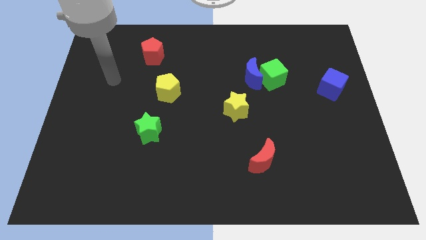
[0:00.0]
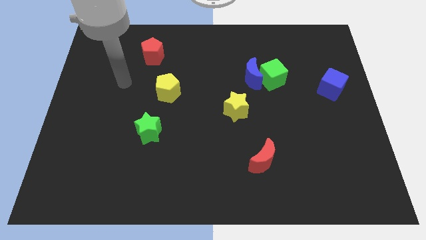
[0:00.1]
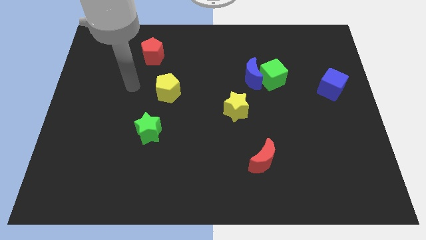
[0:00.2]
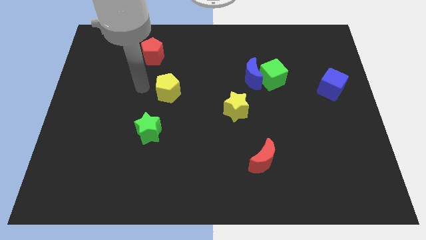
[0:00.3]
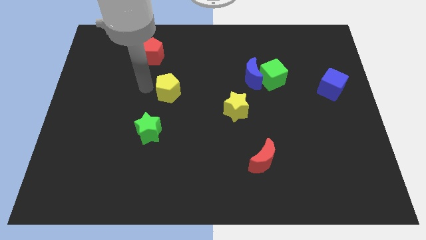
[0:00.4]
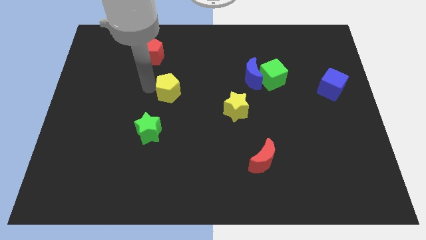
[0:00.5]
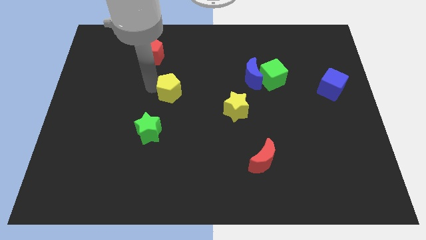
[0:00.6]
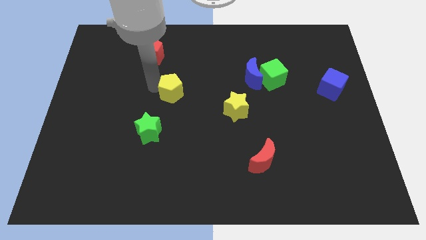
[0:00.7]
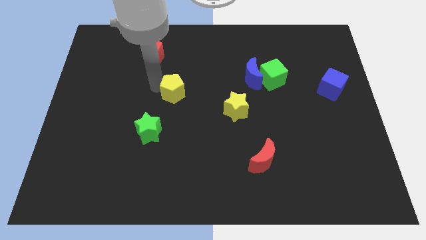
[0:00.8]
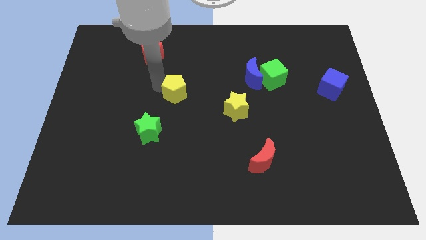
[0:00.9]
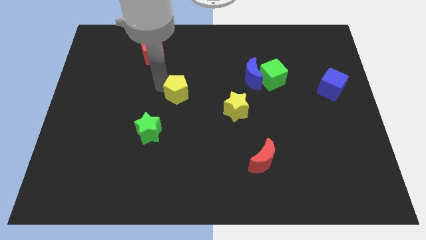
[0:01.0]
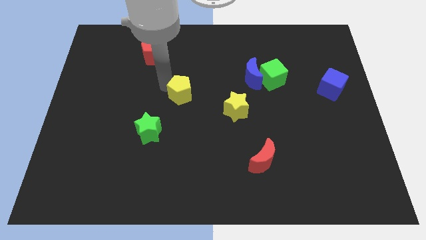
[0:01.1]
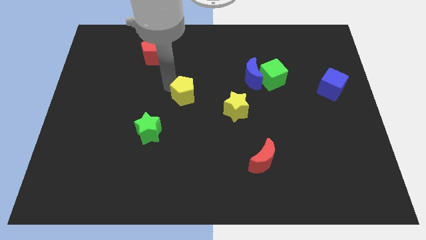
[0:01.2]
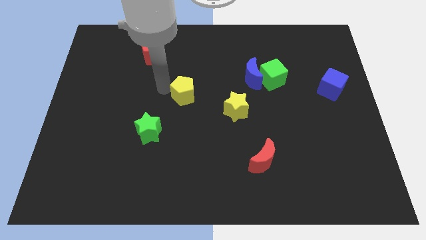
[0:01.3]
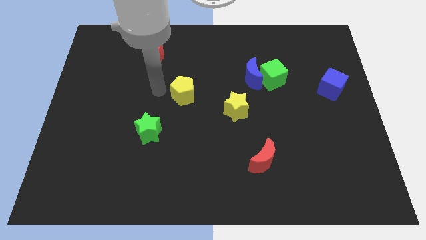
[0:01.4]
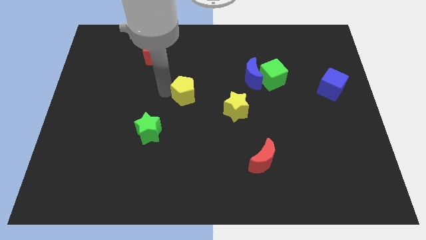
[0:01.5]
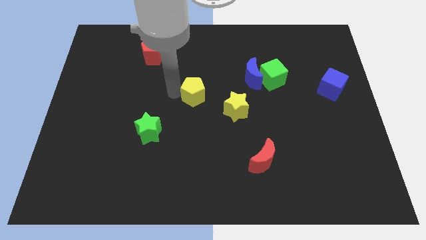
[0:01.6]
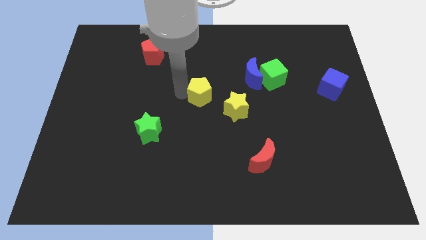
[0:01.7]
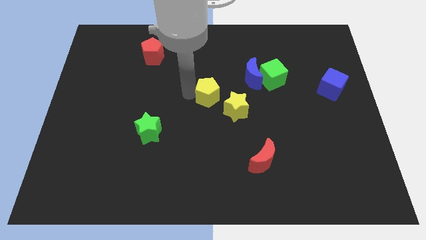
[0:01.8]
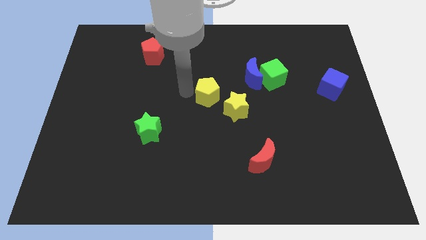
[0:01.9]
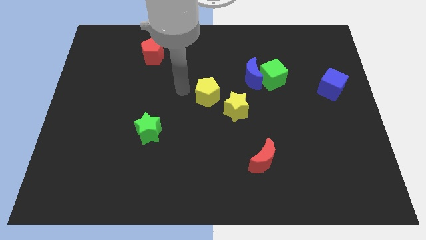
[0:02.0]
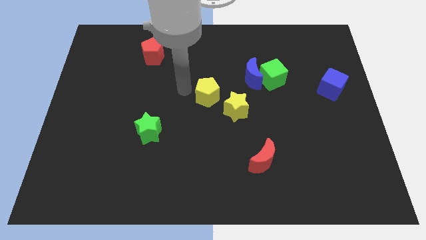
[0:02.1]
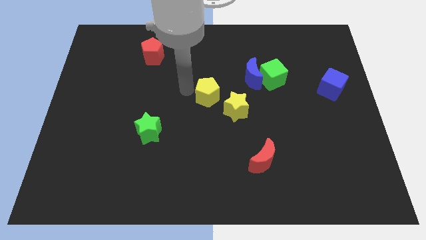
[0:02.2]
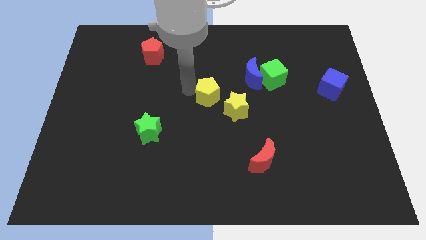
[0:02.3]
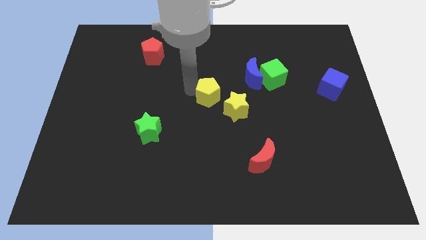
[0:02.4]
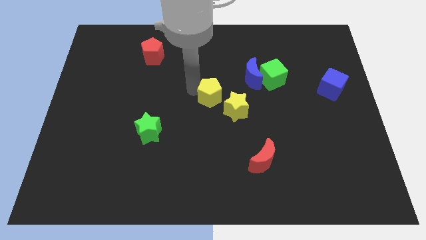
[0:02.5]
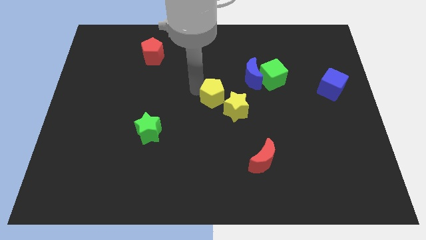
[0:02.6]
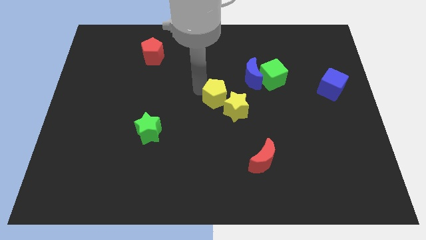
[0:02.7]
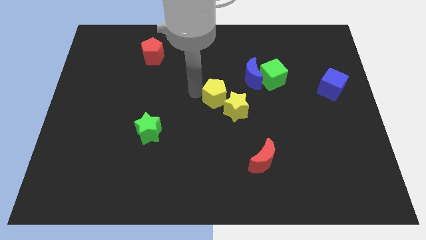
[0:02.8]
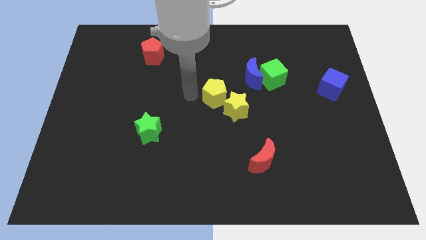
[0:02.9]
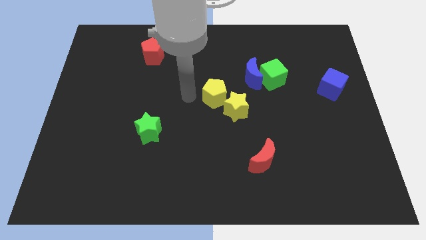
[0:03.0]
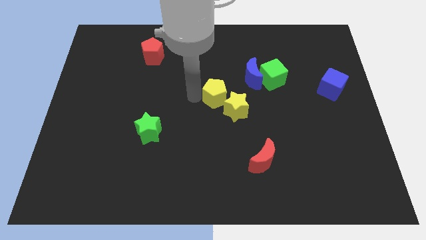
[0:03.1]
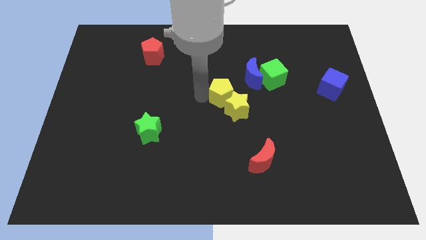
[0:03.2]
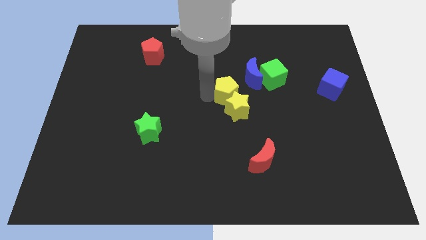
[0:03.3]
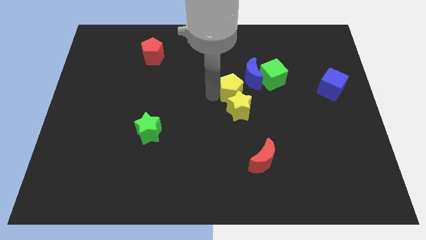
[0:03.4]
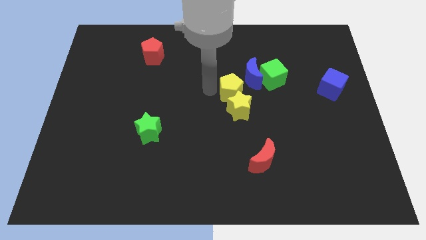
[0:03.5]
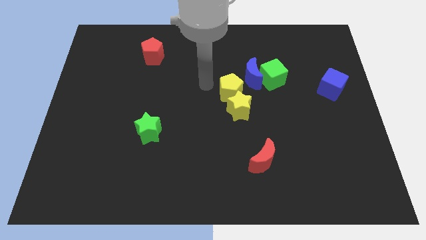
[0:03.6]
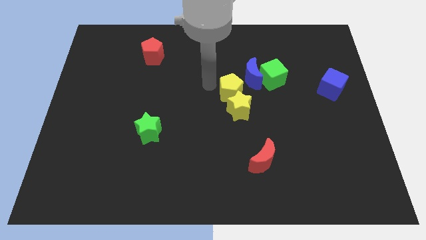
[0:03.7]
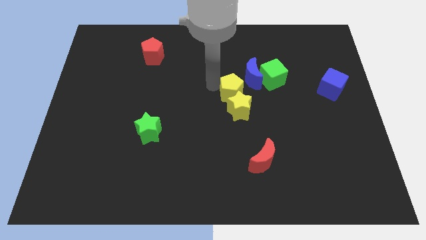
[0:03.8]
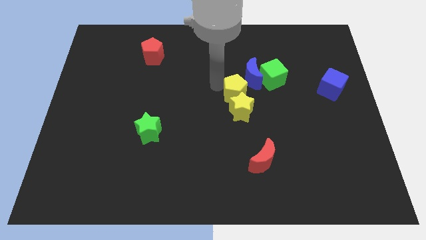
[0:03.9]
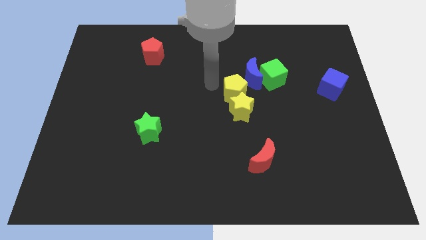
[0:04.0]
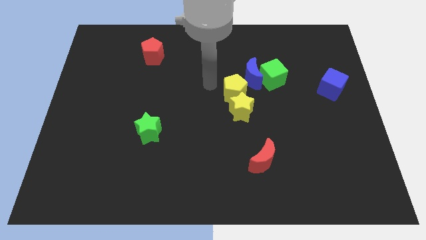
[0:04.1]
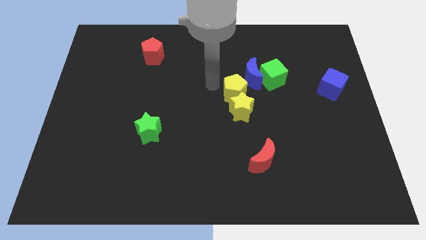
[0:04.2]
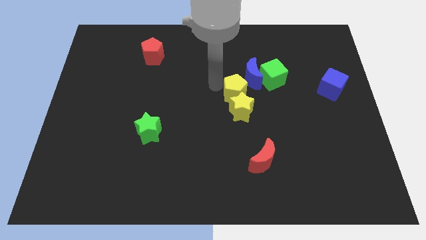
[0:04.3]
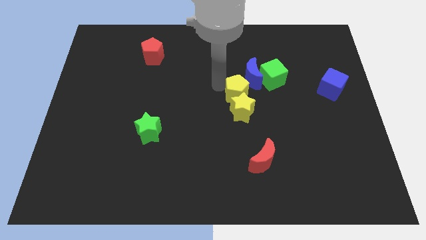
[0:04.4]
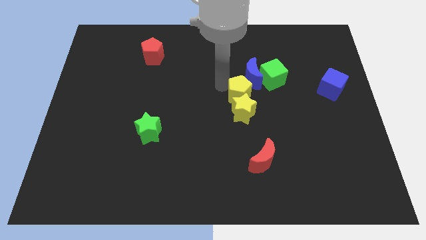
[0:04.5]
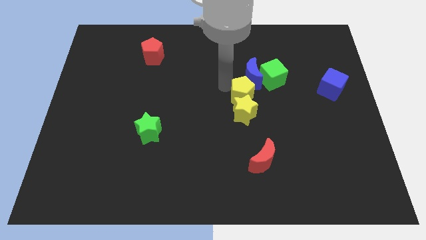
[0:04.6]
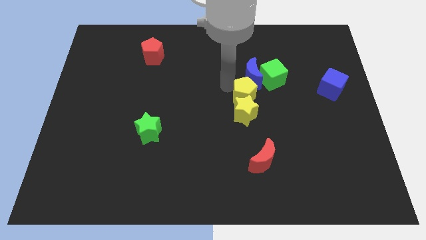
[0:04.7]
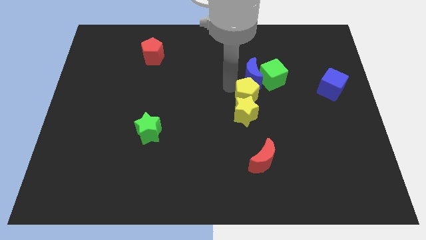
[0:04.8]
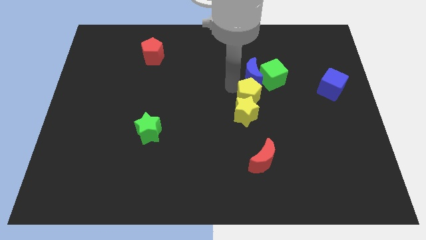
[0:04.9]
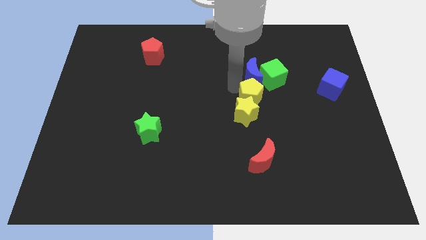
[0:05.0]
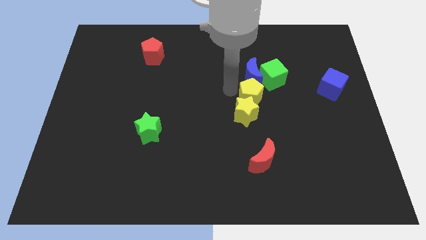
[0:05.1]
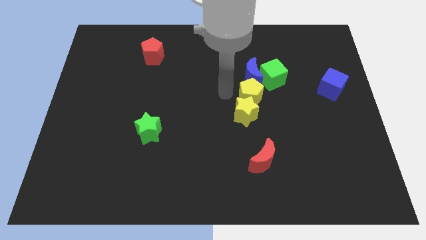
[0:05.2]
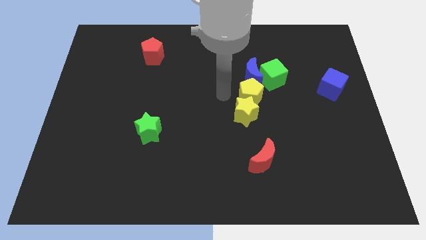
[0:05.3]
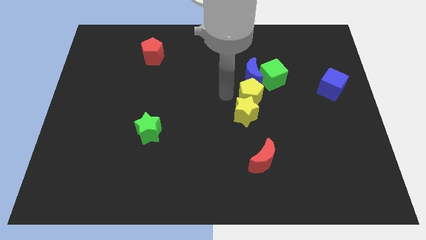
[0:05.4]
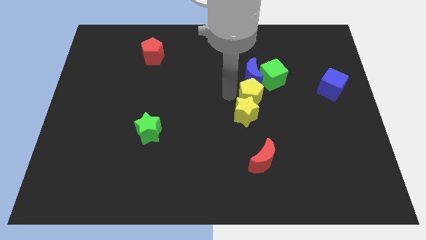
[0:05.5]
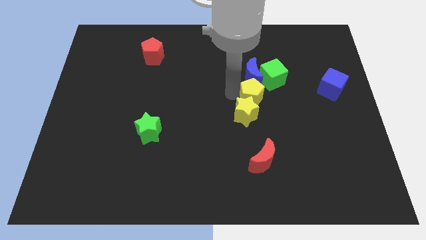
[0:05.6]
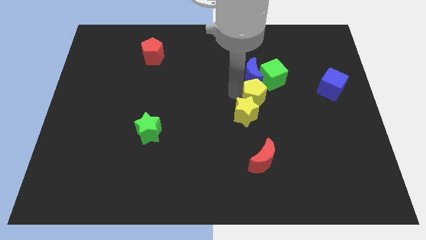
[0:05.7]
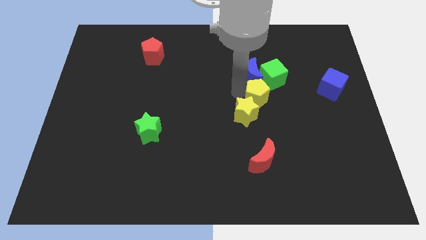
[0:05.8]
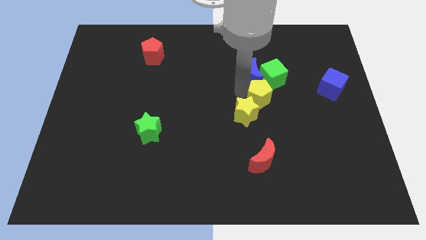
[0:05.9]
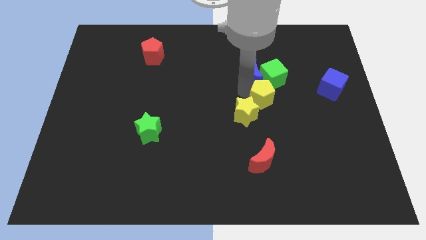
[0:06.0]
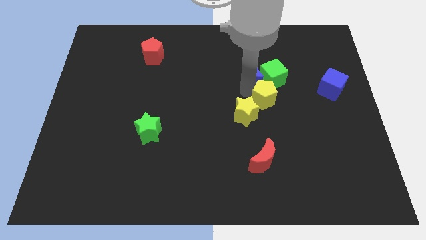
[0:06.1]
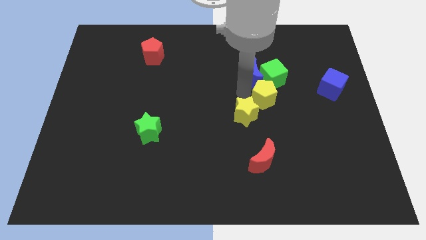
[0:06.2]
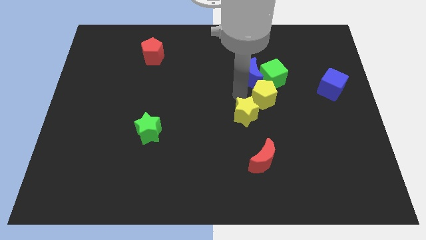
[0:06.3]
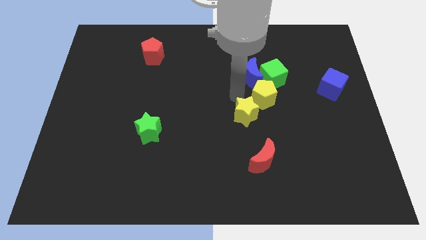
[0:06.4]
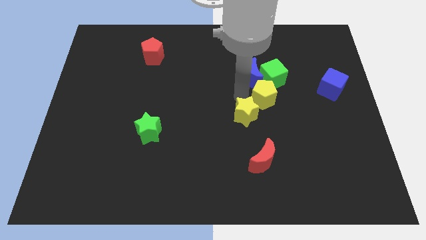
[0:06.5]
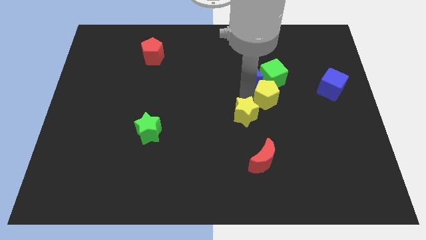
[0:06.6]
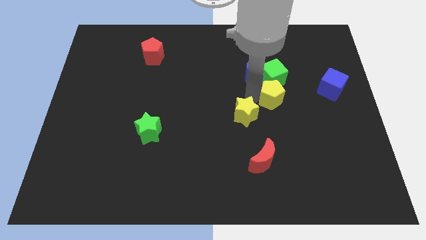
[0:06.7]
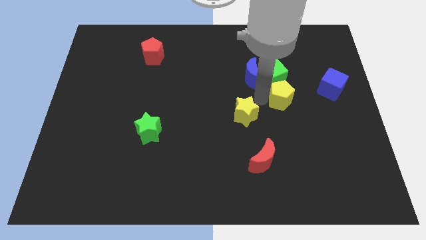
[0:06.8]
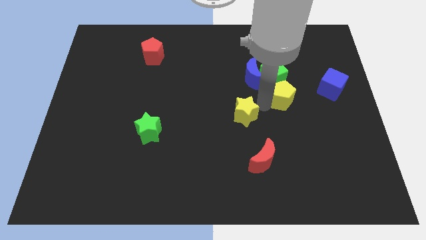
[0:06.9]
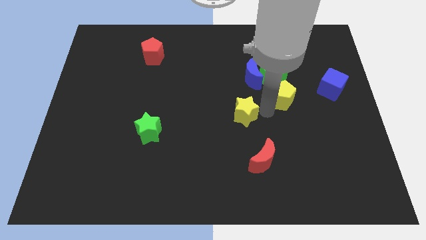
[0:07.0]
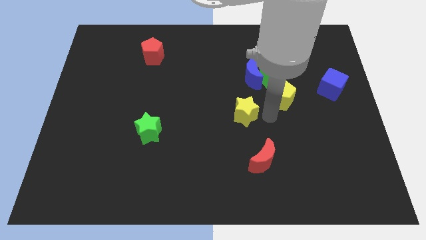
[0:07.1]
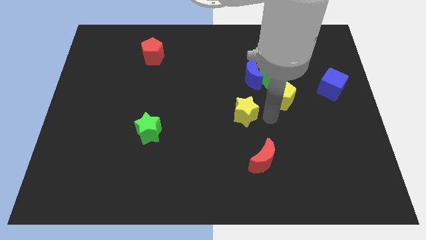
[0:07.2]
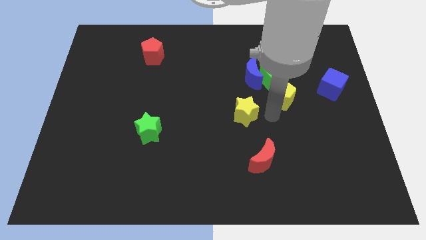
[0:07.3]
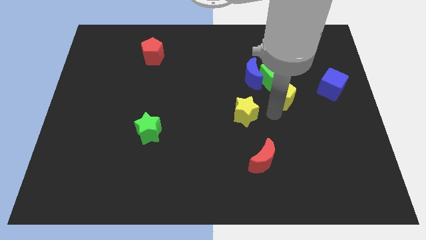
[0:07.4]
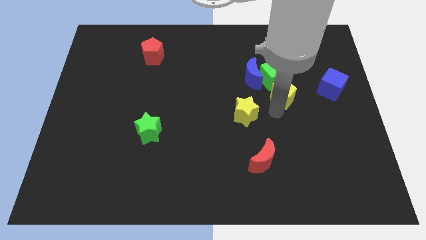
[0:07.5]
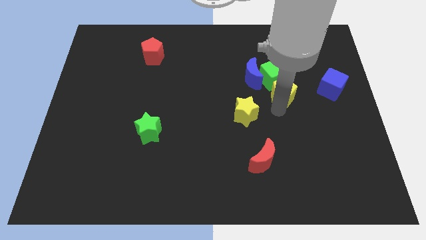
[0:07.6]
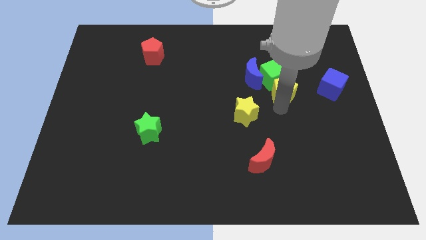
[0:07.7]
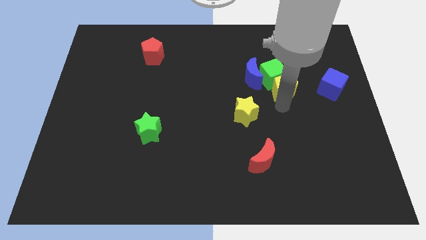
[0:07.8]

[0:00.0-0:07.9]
slide the yellow pentagon to the right of the blue moon

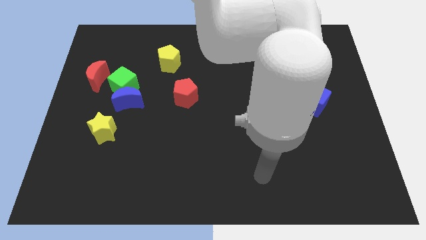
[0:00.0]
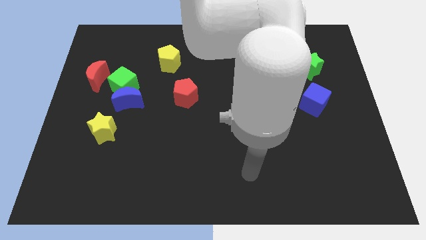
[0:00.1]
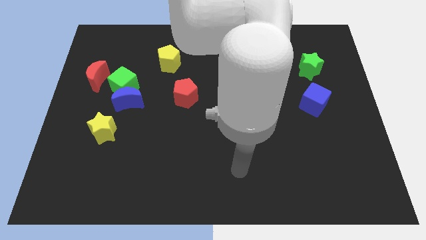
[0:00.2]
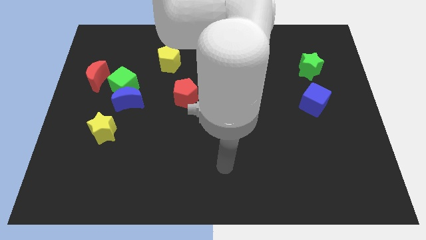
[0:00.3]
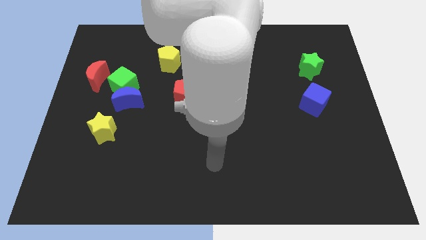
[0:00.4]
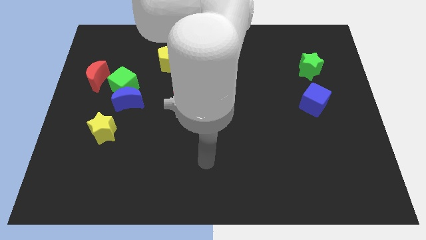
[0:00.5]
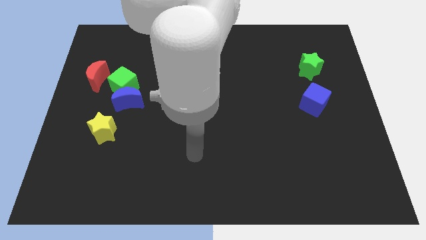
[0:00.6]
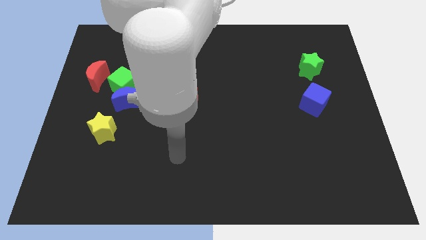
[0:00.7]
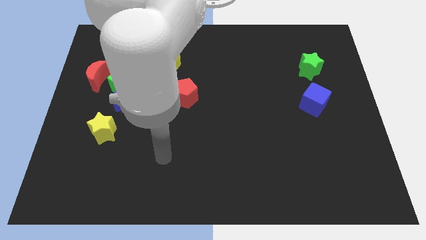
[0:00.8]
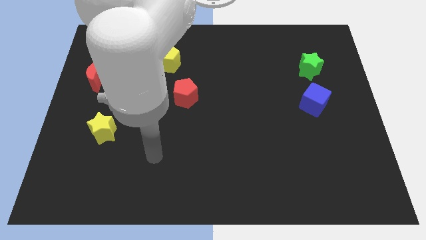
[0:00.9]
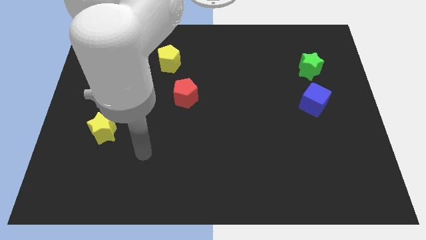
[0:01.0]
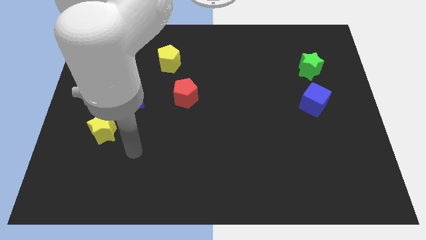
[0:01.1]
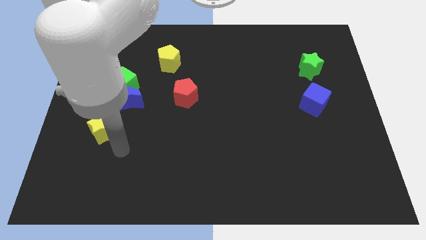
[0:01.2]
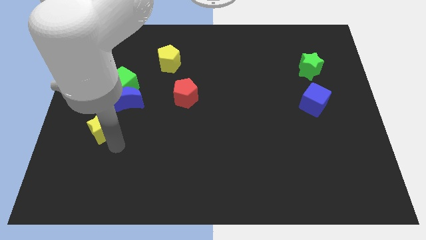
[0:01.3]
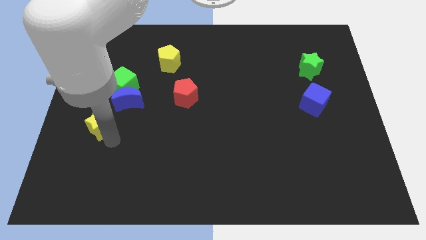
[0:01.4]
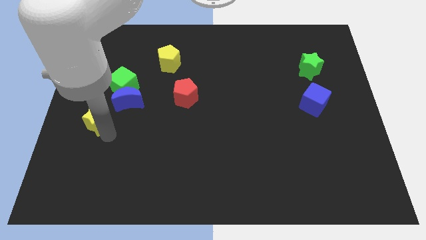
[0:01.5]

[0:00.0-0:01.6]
push the yellow star to the bottom of the red moon
